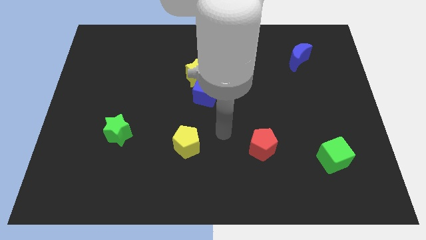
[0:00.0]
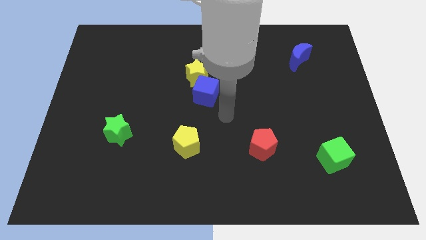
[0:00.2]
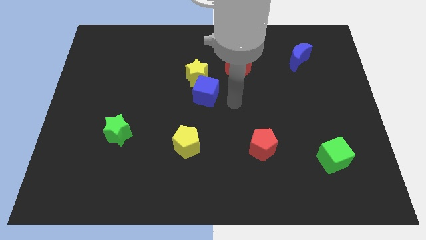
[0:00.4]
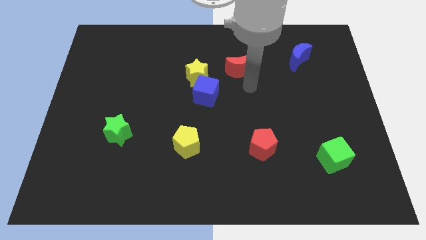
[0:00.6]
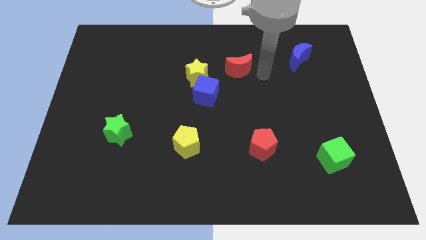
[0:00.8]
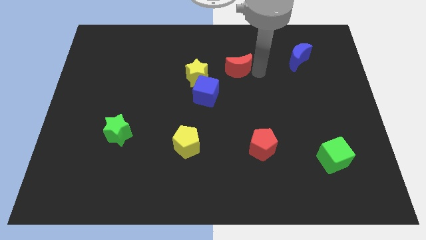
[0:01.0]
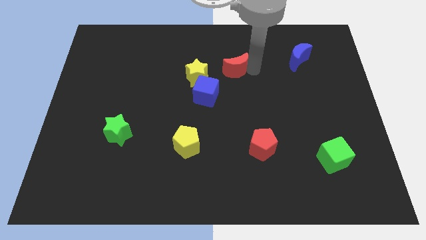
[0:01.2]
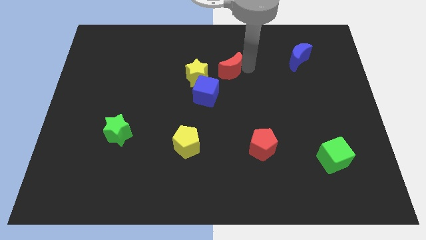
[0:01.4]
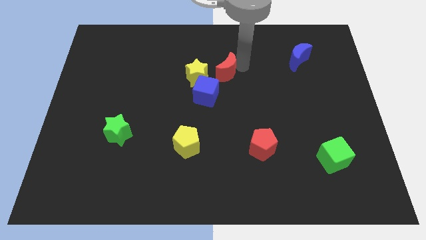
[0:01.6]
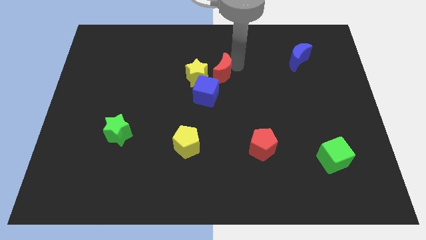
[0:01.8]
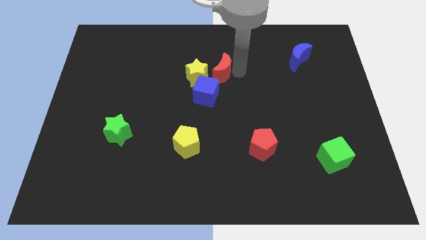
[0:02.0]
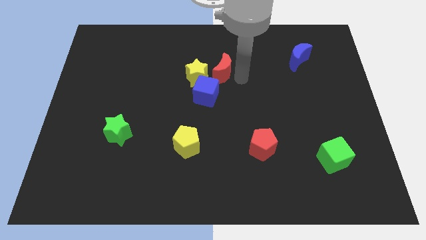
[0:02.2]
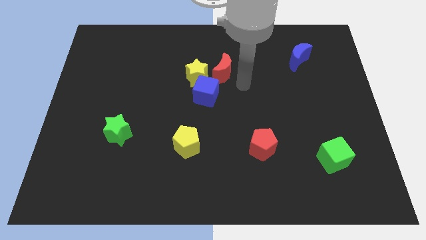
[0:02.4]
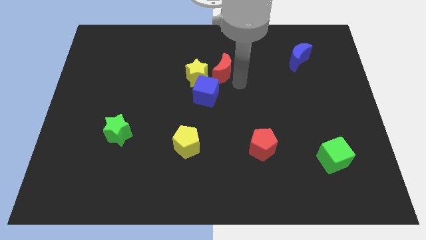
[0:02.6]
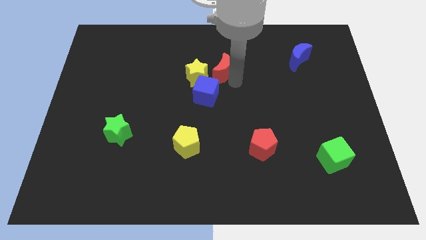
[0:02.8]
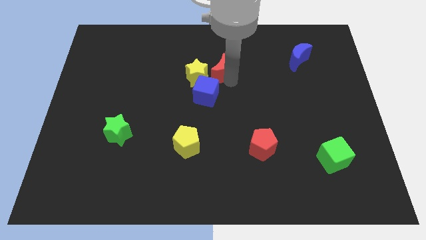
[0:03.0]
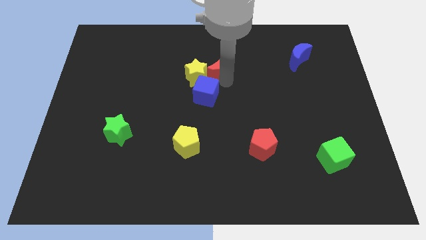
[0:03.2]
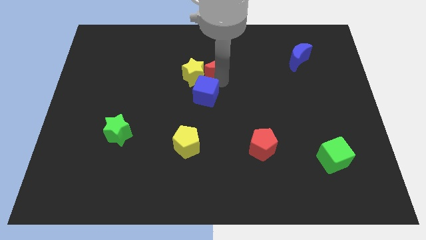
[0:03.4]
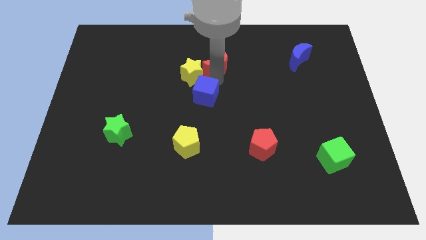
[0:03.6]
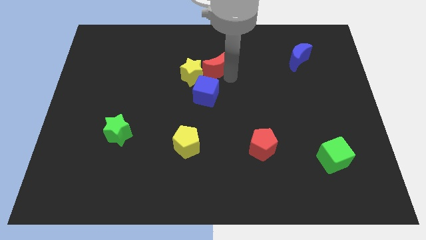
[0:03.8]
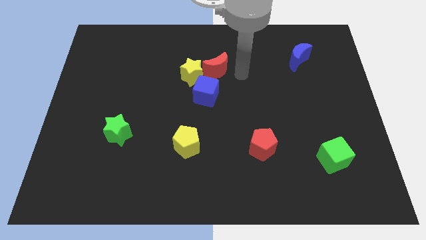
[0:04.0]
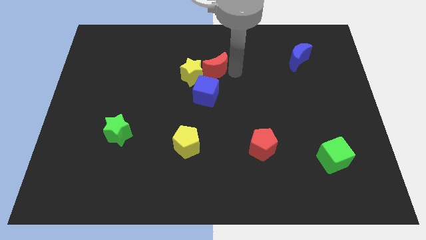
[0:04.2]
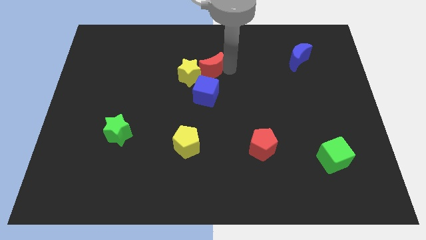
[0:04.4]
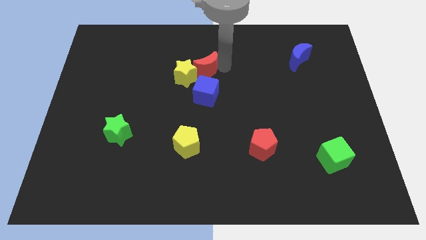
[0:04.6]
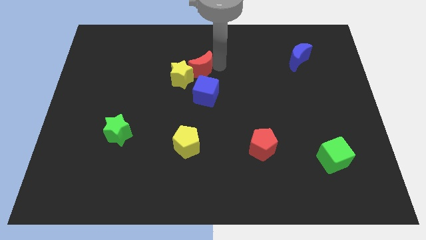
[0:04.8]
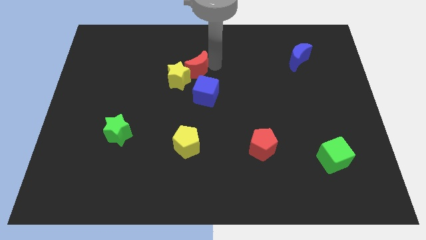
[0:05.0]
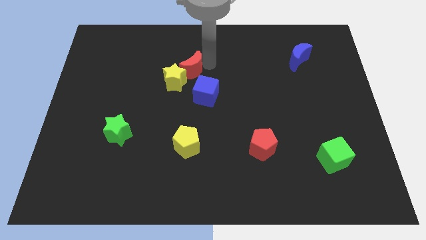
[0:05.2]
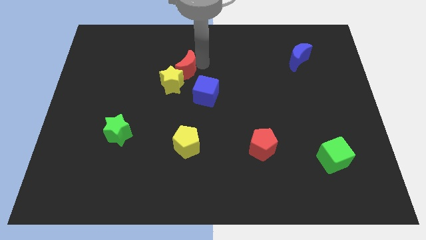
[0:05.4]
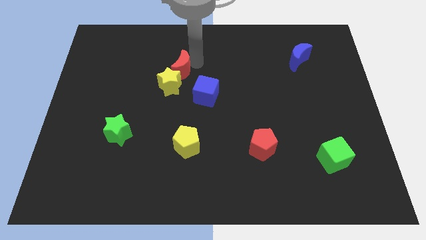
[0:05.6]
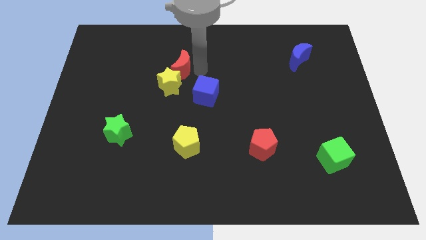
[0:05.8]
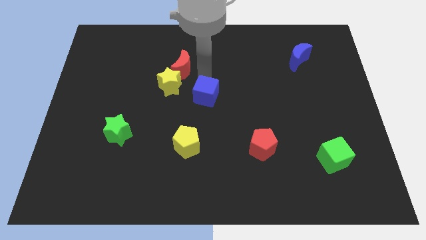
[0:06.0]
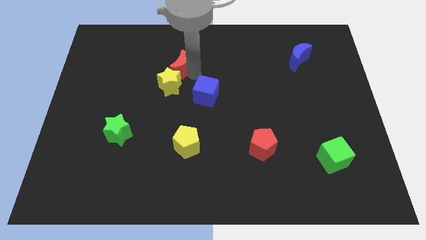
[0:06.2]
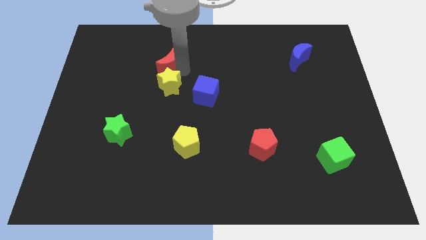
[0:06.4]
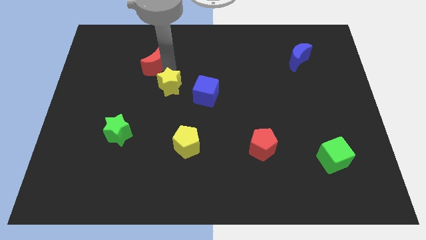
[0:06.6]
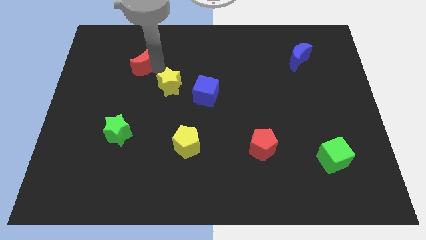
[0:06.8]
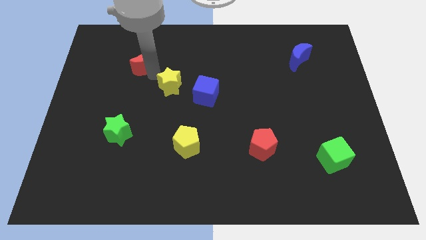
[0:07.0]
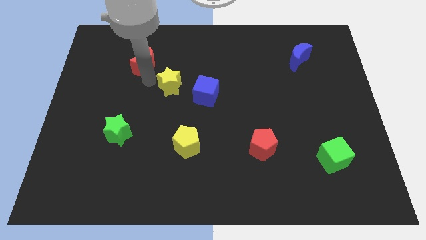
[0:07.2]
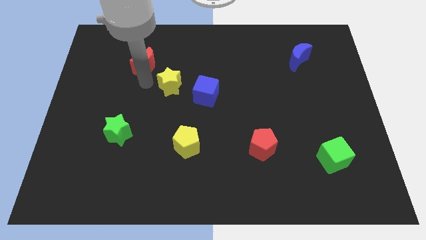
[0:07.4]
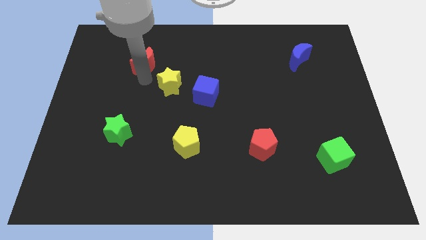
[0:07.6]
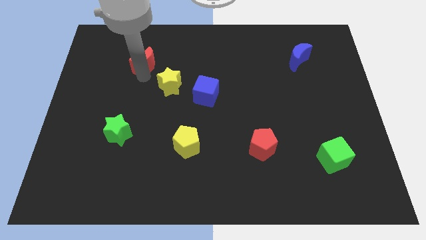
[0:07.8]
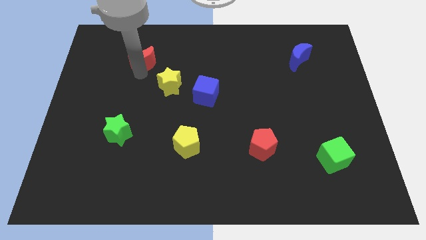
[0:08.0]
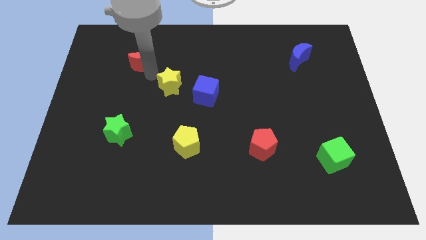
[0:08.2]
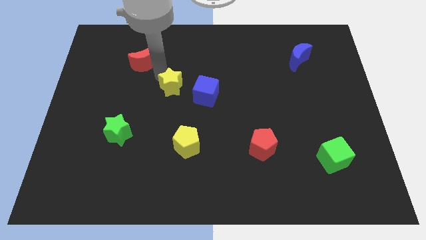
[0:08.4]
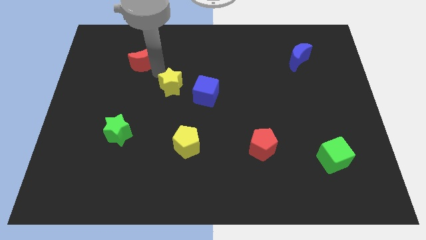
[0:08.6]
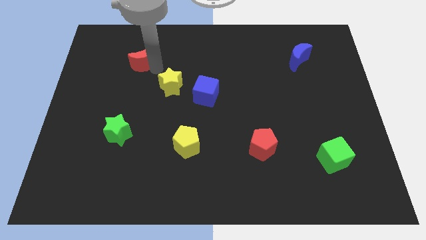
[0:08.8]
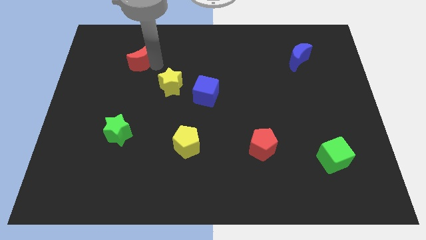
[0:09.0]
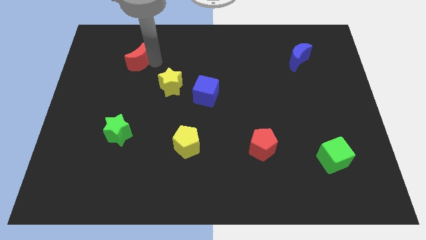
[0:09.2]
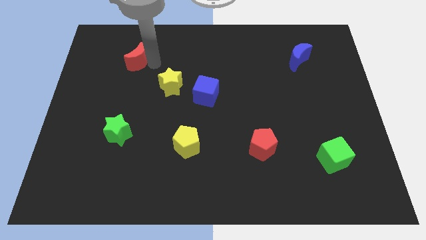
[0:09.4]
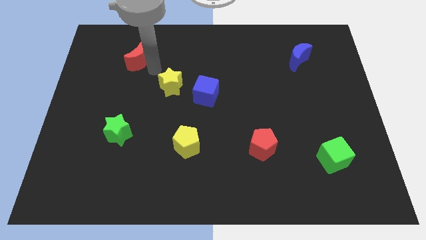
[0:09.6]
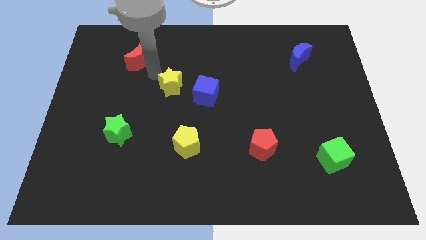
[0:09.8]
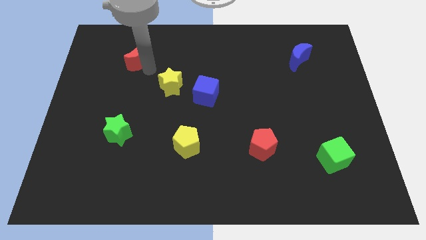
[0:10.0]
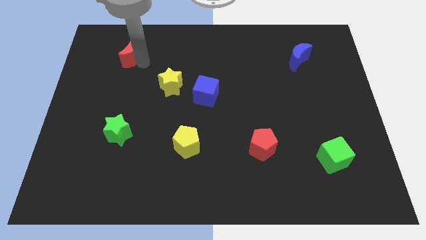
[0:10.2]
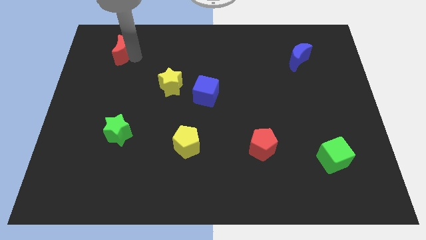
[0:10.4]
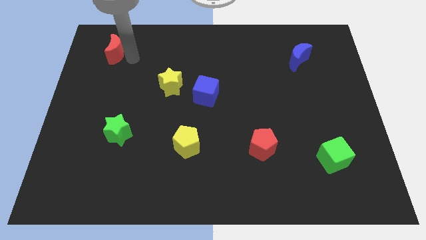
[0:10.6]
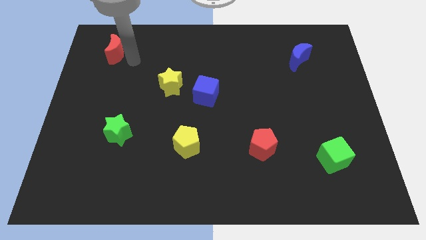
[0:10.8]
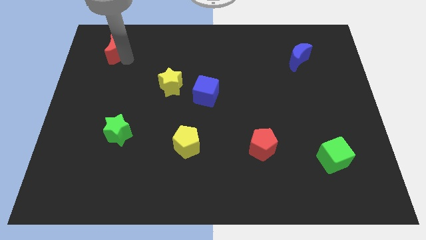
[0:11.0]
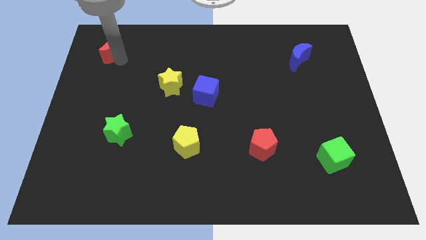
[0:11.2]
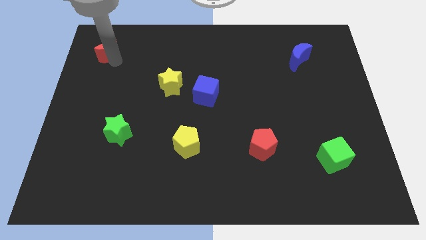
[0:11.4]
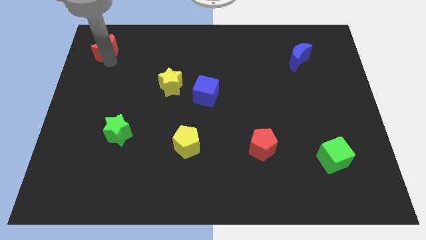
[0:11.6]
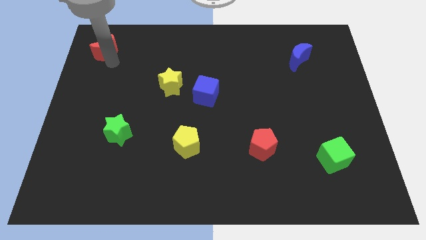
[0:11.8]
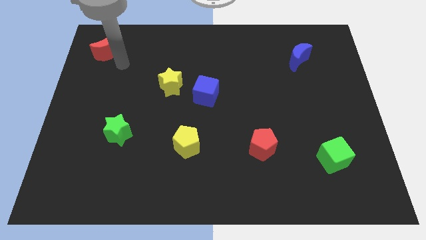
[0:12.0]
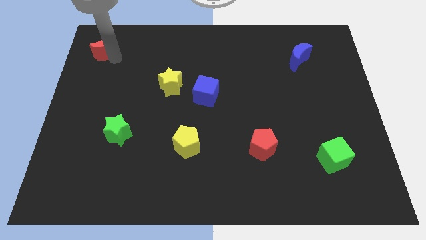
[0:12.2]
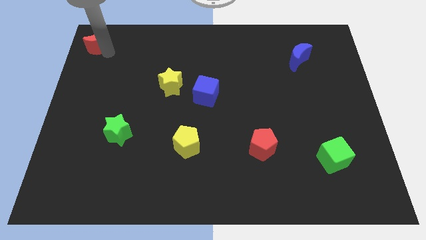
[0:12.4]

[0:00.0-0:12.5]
put the red moon to the top left

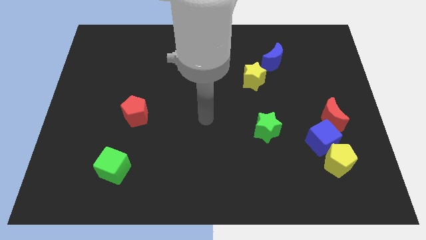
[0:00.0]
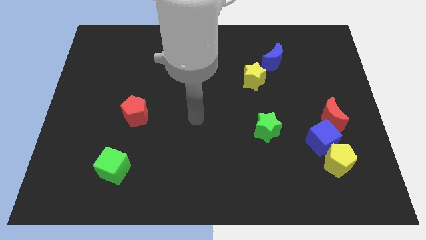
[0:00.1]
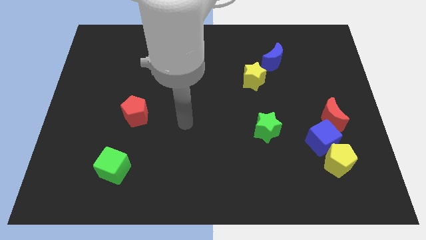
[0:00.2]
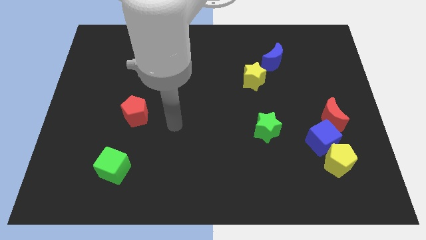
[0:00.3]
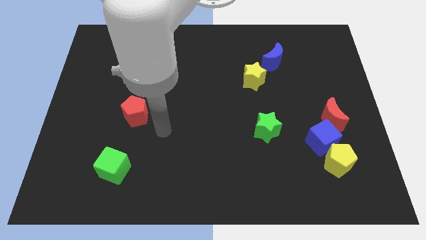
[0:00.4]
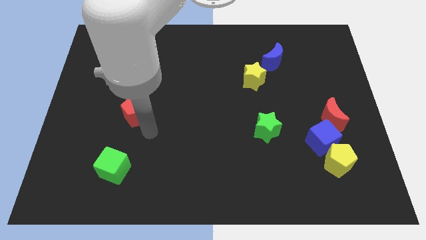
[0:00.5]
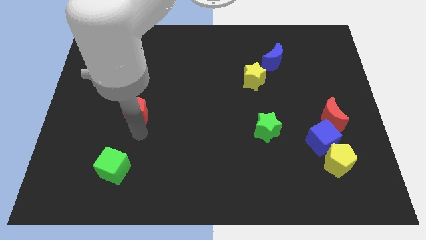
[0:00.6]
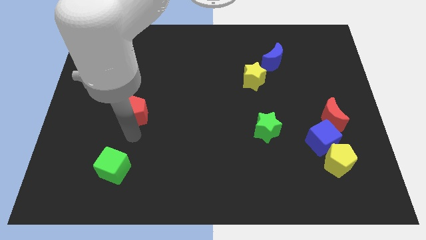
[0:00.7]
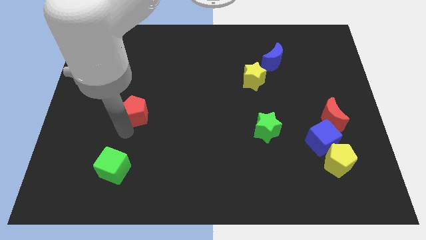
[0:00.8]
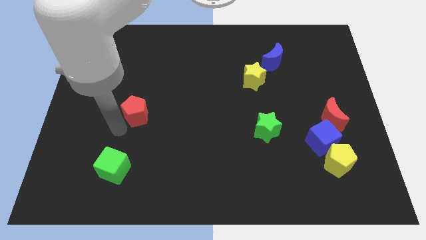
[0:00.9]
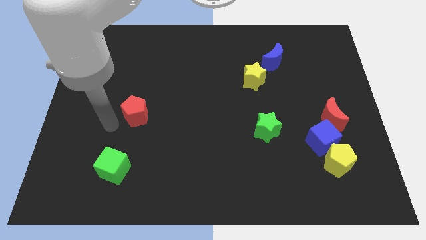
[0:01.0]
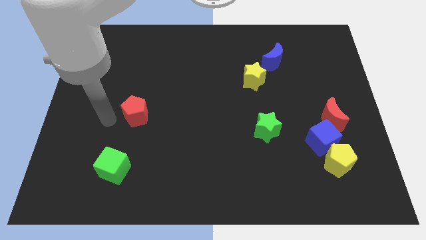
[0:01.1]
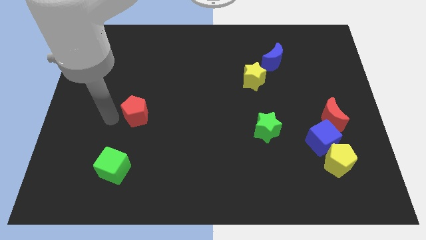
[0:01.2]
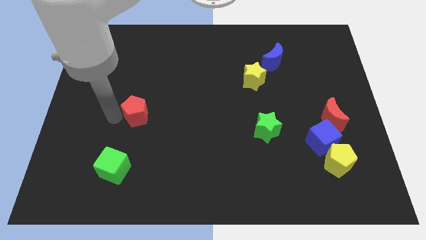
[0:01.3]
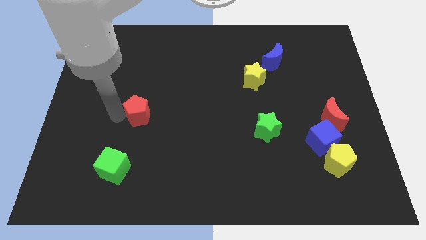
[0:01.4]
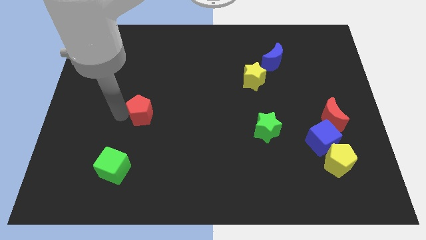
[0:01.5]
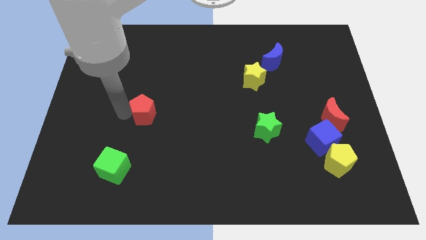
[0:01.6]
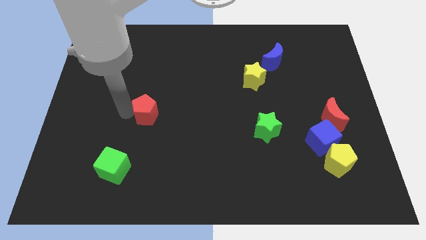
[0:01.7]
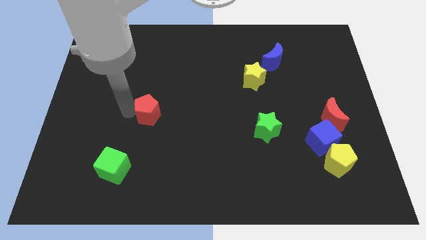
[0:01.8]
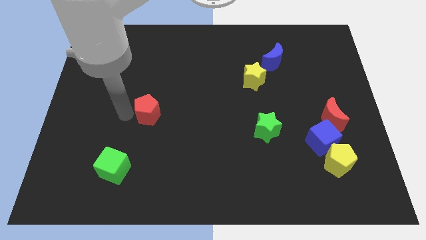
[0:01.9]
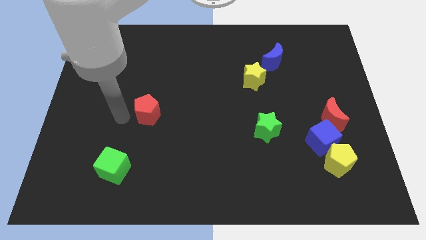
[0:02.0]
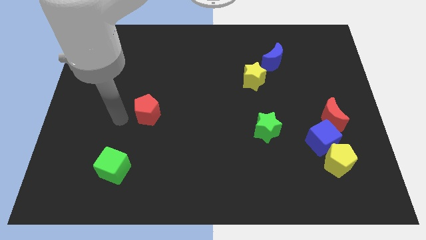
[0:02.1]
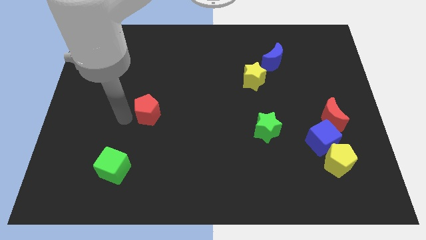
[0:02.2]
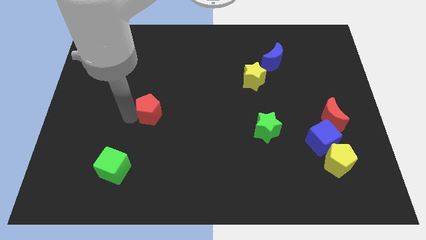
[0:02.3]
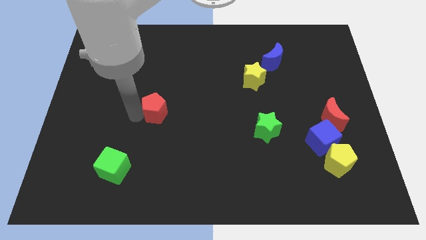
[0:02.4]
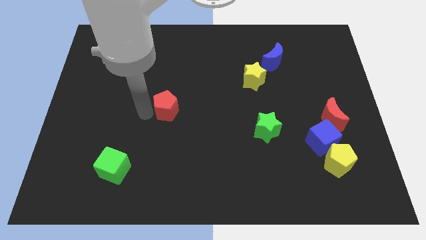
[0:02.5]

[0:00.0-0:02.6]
move the red pentagon to the center of the board
